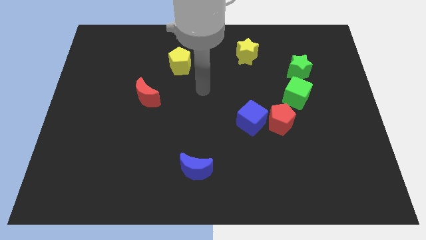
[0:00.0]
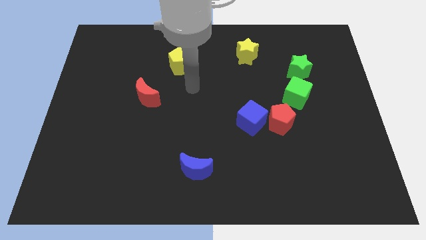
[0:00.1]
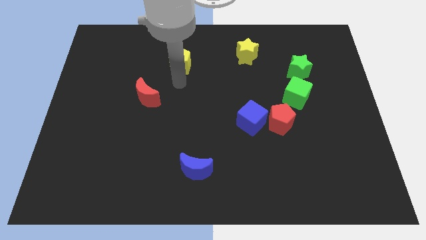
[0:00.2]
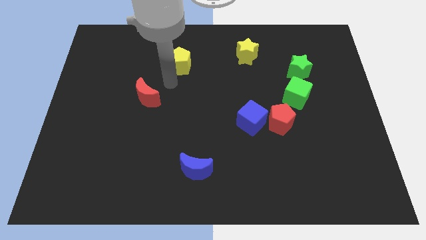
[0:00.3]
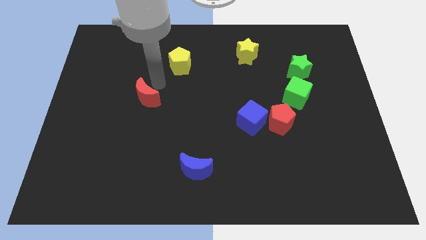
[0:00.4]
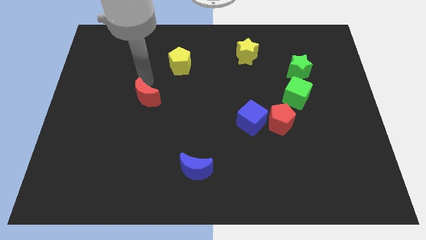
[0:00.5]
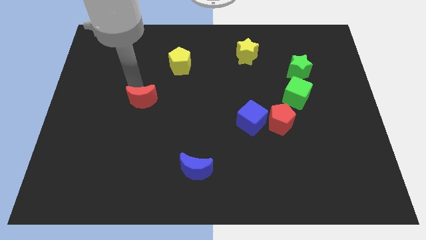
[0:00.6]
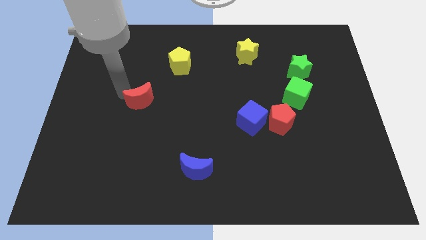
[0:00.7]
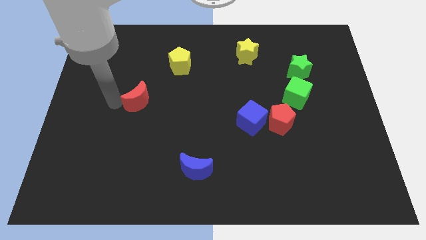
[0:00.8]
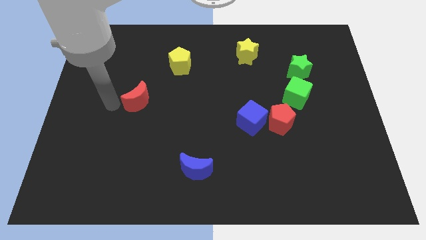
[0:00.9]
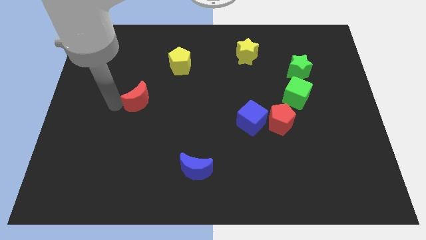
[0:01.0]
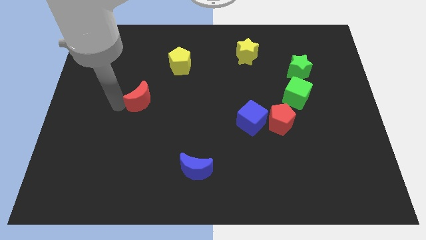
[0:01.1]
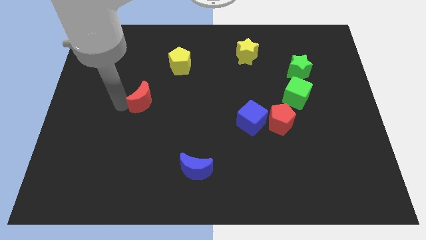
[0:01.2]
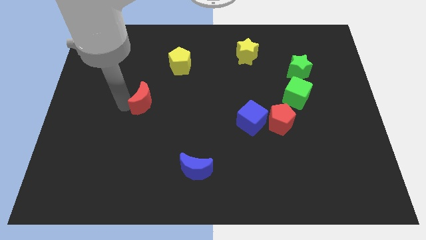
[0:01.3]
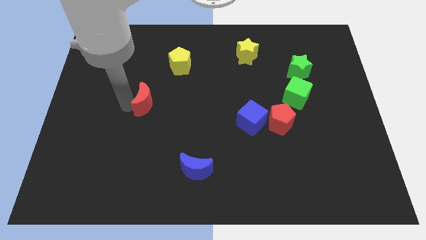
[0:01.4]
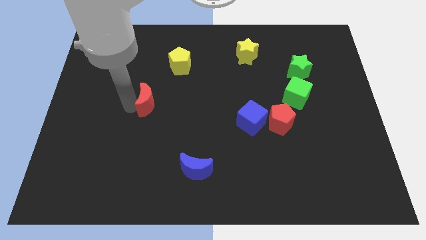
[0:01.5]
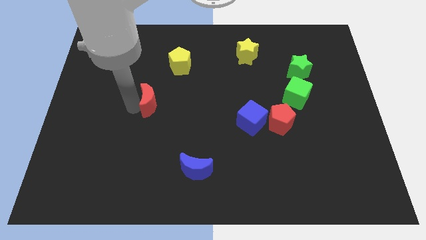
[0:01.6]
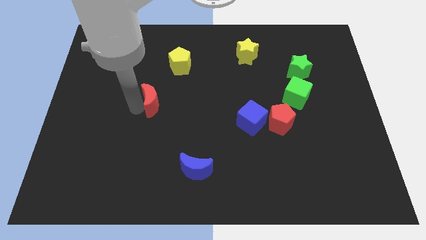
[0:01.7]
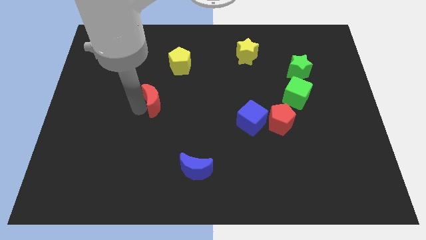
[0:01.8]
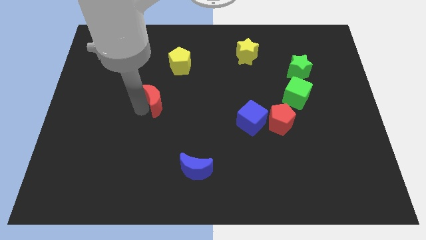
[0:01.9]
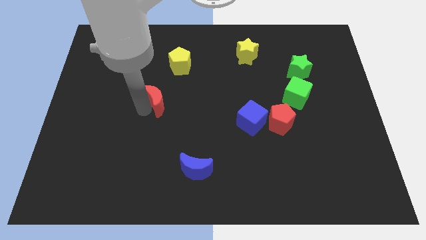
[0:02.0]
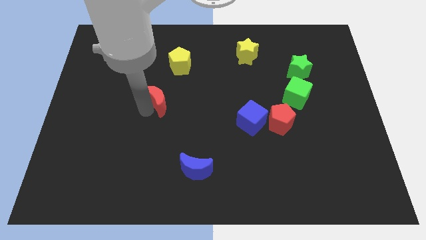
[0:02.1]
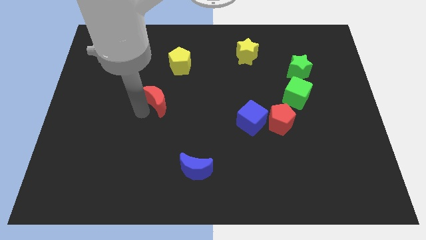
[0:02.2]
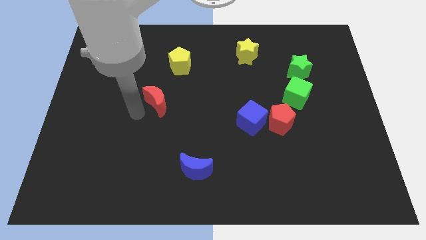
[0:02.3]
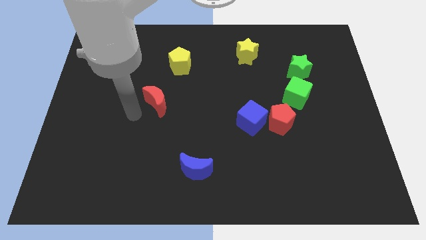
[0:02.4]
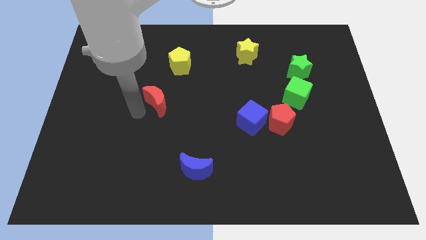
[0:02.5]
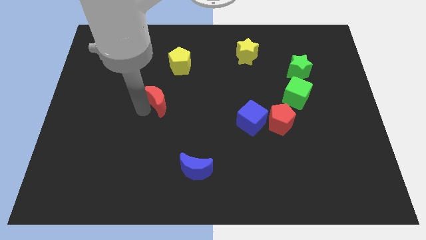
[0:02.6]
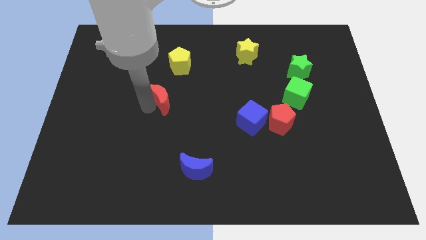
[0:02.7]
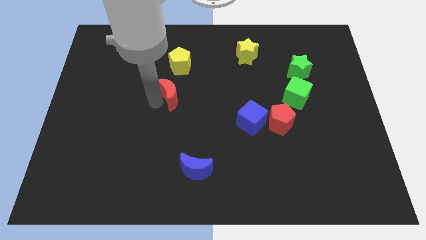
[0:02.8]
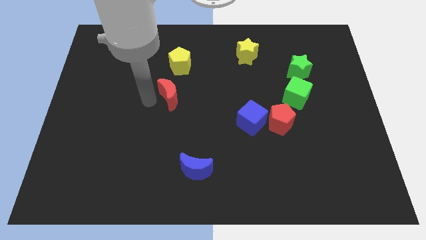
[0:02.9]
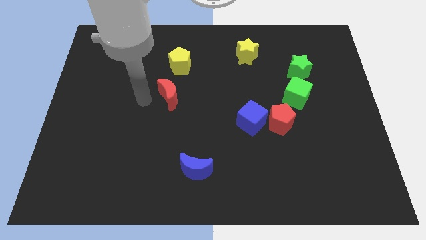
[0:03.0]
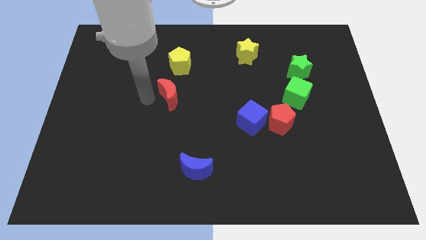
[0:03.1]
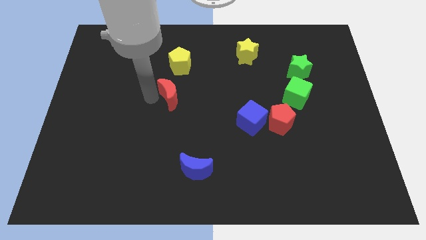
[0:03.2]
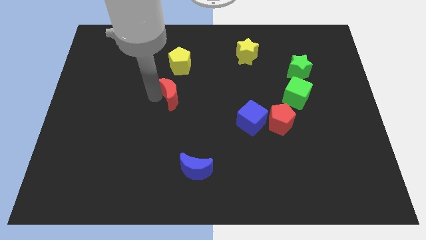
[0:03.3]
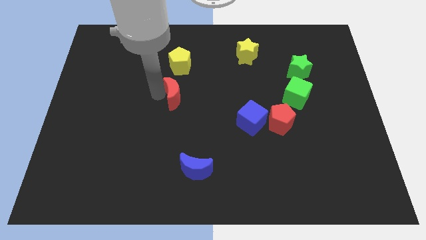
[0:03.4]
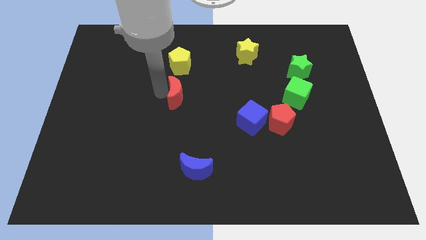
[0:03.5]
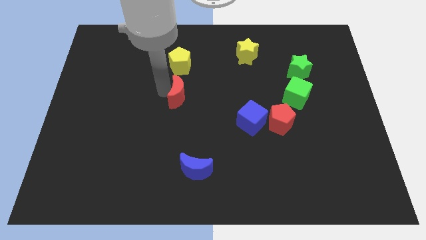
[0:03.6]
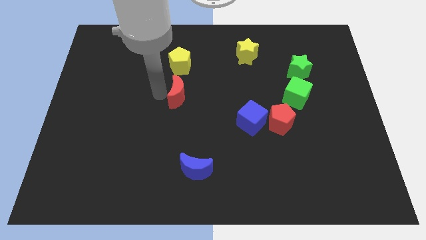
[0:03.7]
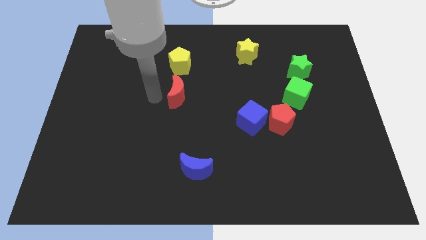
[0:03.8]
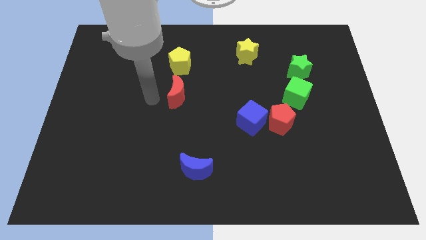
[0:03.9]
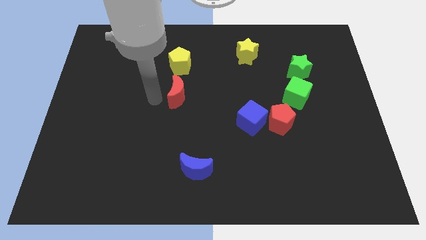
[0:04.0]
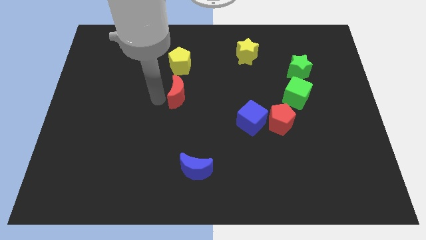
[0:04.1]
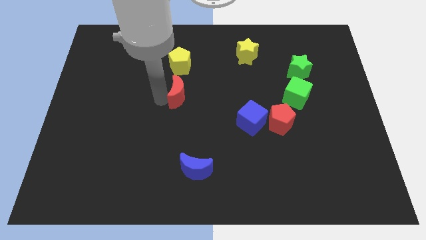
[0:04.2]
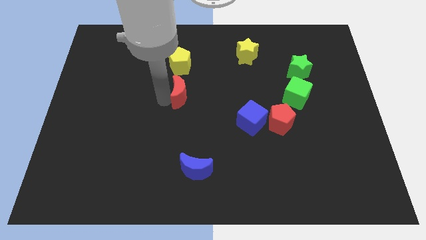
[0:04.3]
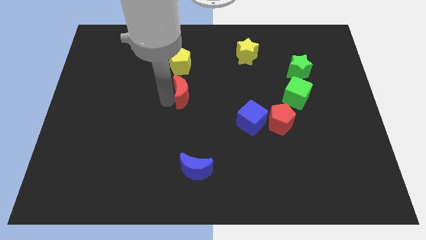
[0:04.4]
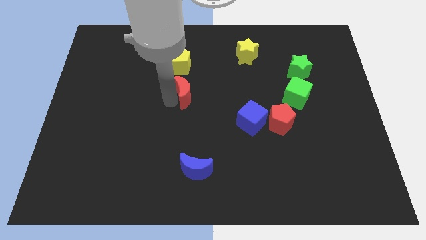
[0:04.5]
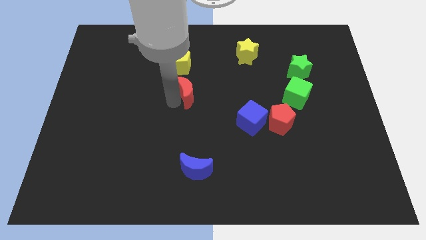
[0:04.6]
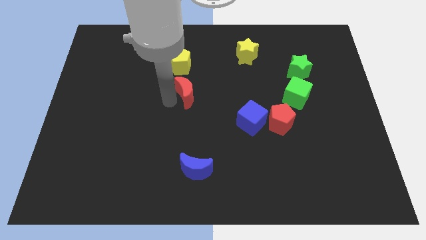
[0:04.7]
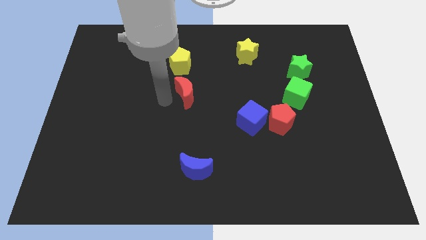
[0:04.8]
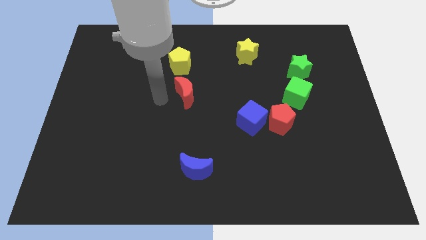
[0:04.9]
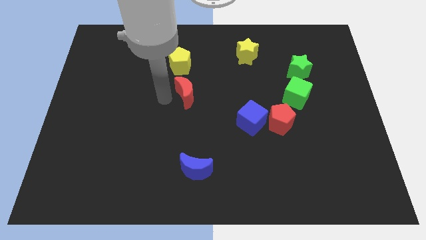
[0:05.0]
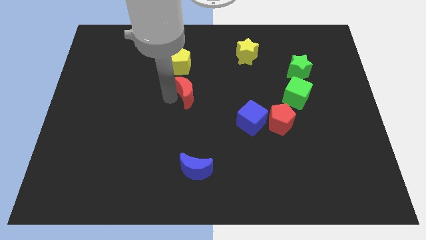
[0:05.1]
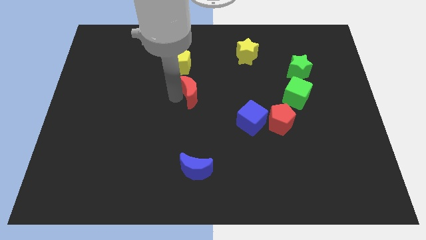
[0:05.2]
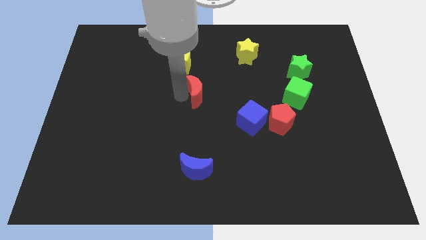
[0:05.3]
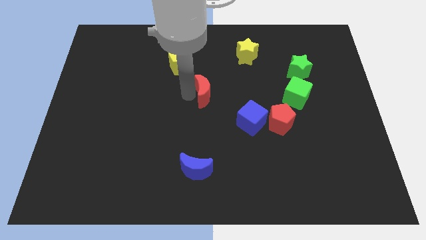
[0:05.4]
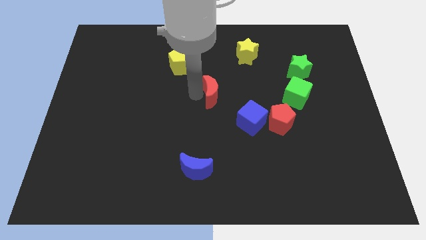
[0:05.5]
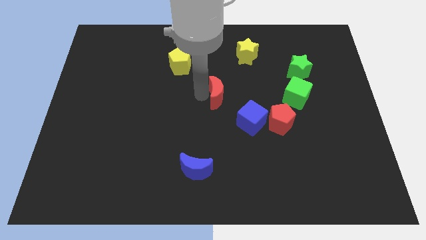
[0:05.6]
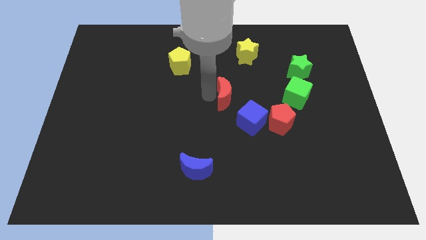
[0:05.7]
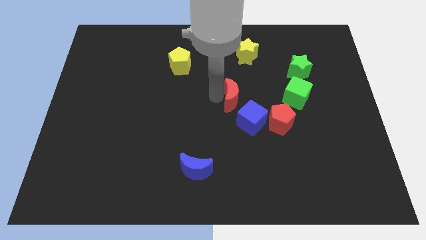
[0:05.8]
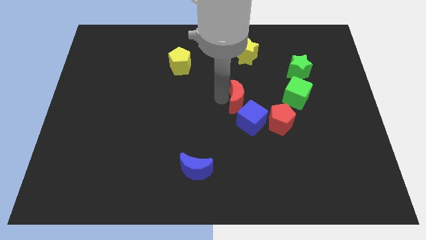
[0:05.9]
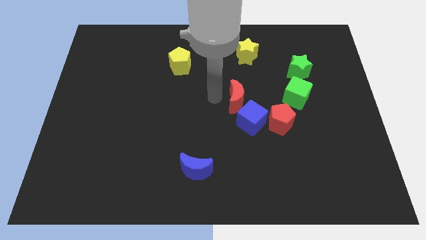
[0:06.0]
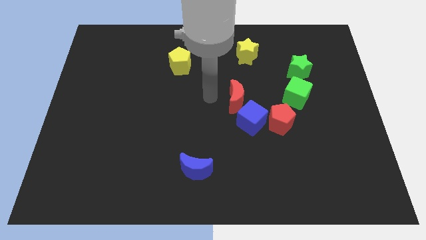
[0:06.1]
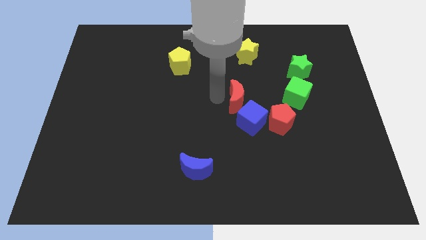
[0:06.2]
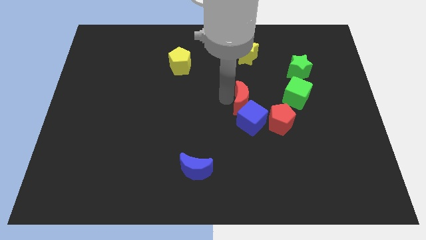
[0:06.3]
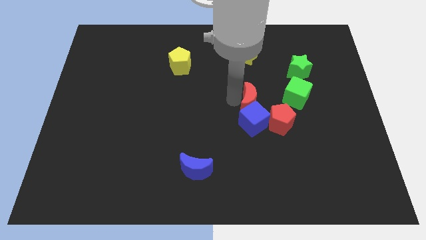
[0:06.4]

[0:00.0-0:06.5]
put the red moon to the top right of the blue cube

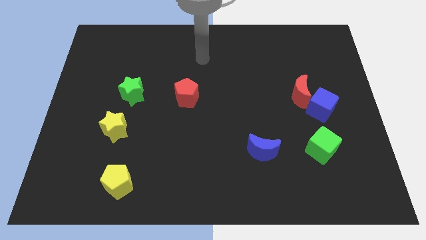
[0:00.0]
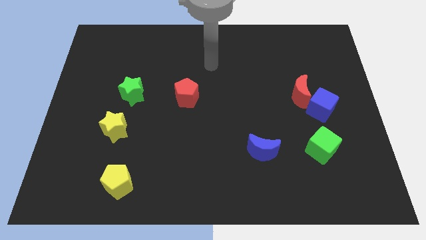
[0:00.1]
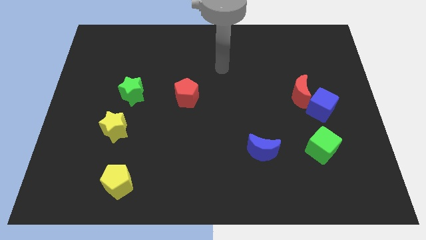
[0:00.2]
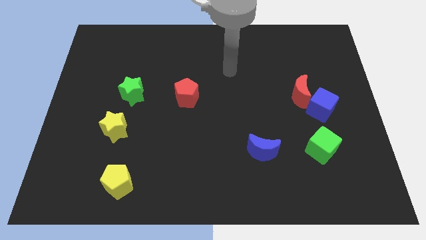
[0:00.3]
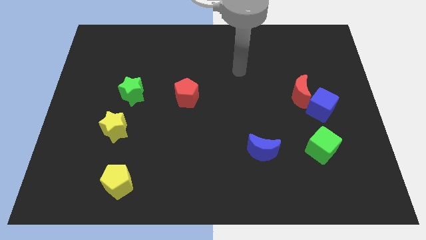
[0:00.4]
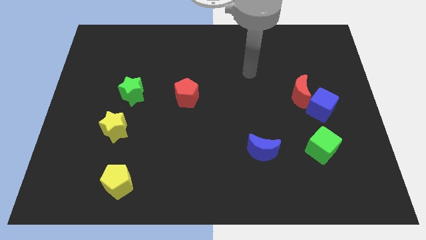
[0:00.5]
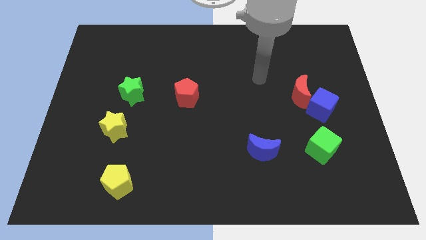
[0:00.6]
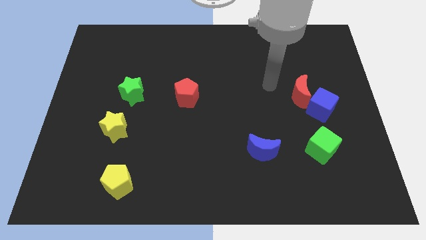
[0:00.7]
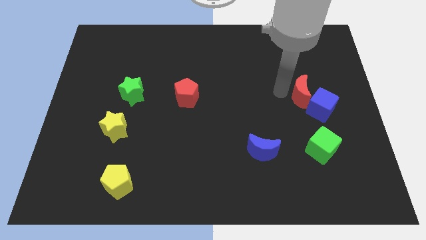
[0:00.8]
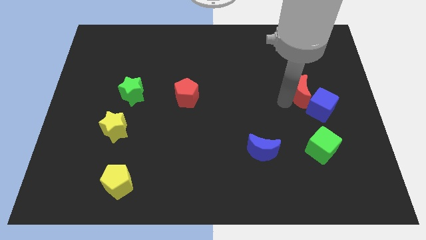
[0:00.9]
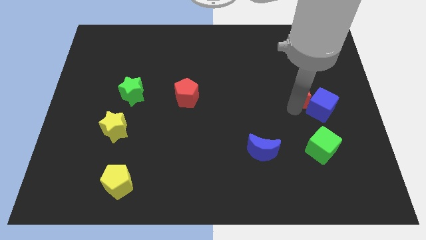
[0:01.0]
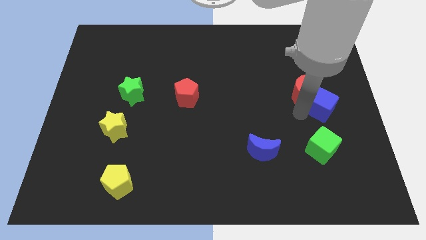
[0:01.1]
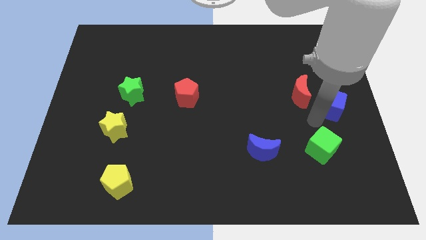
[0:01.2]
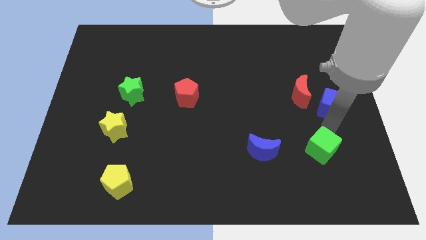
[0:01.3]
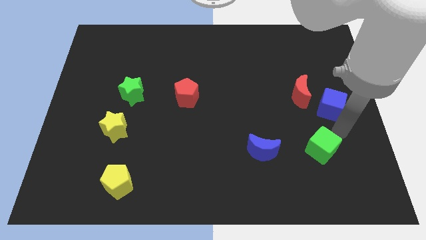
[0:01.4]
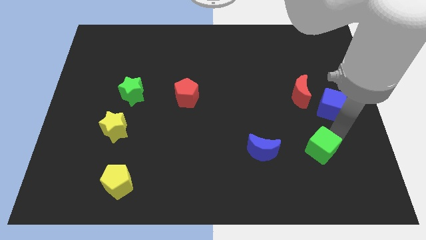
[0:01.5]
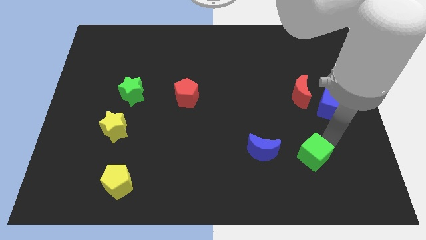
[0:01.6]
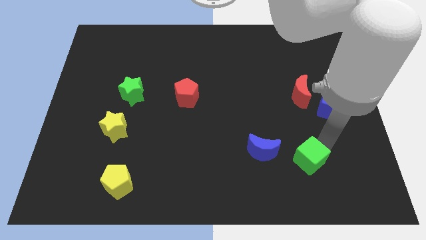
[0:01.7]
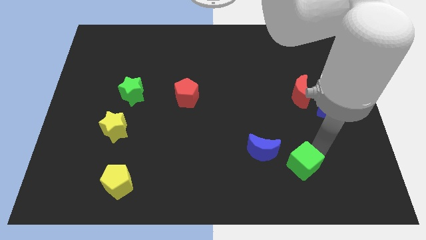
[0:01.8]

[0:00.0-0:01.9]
put the green cube to the bottom right side of the blue moon
